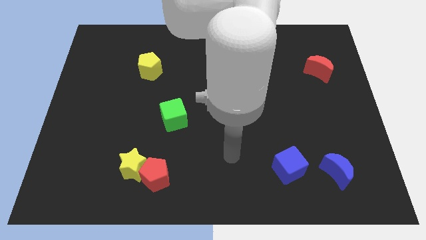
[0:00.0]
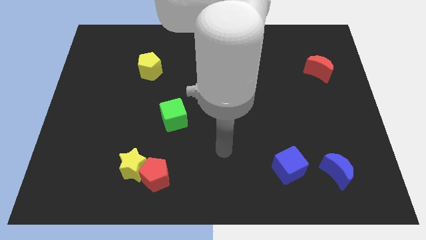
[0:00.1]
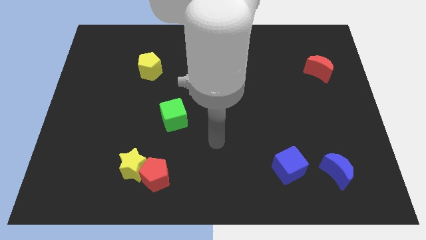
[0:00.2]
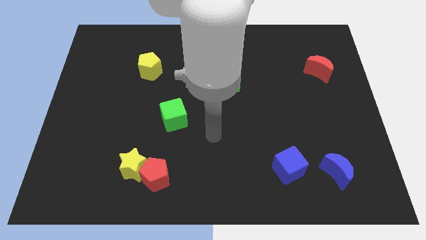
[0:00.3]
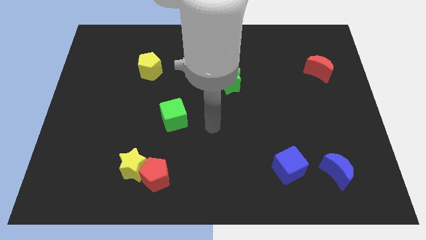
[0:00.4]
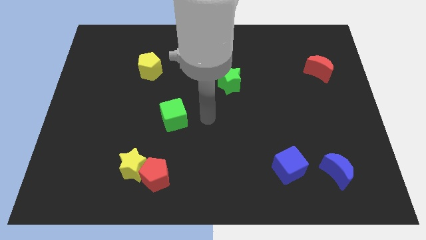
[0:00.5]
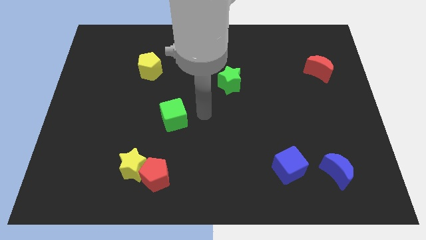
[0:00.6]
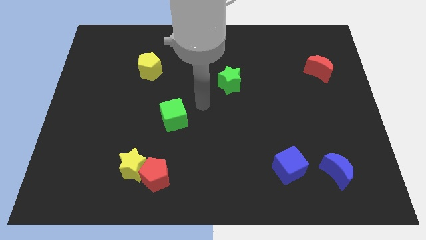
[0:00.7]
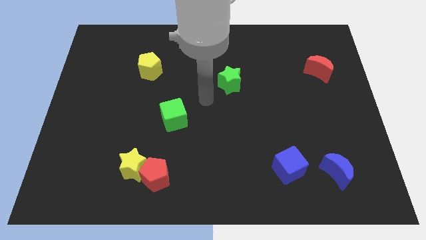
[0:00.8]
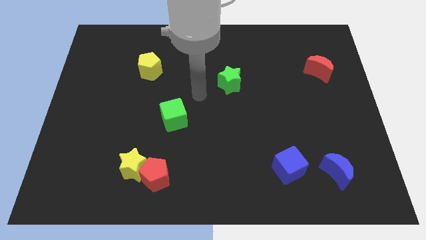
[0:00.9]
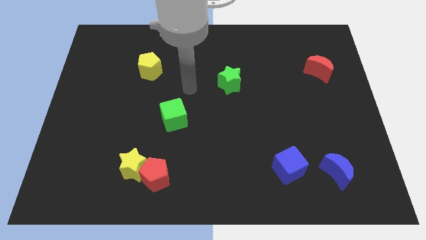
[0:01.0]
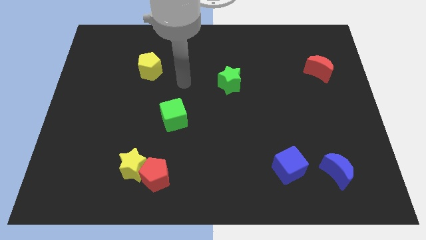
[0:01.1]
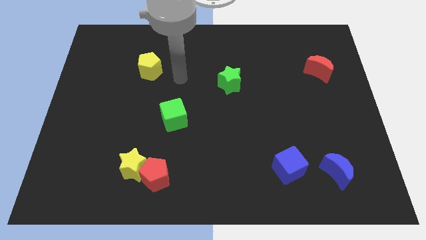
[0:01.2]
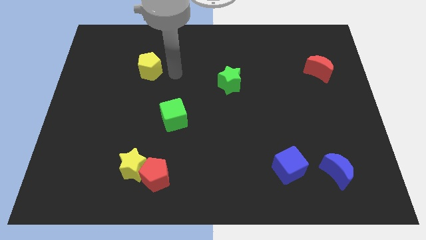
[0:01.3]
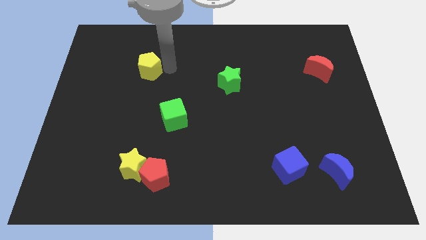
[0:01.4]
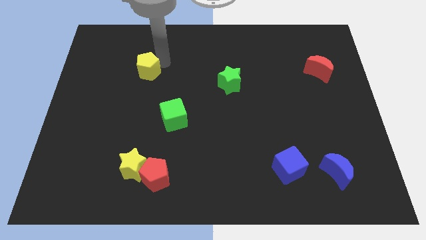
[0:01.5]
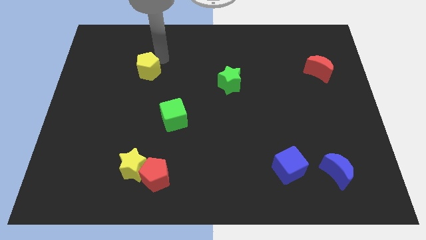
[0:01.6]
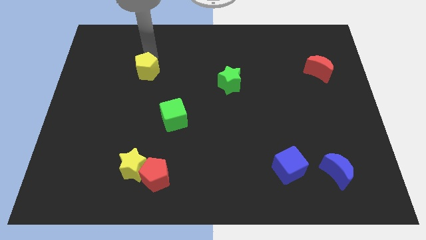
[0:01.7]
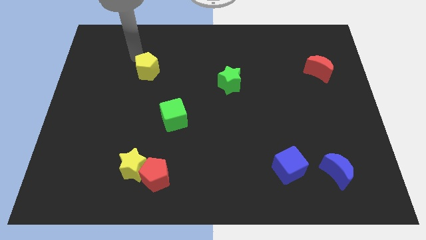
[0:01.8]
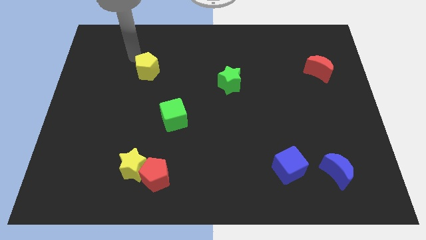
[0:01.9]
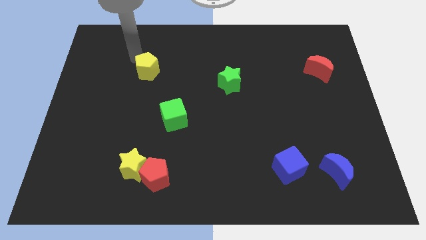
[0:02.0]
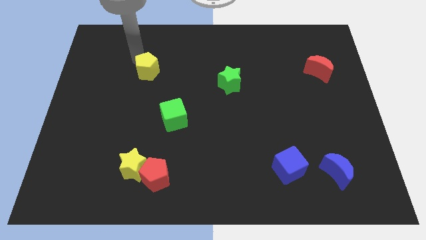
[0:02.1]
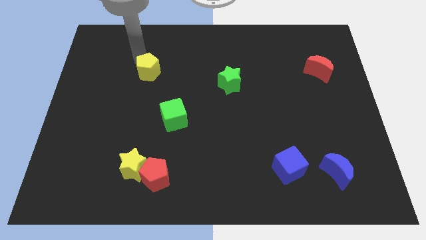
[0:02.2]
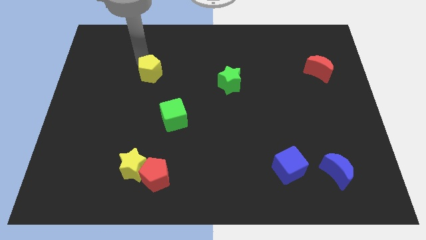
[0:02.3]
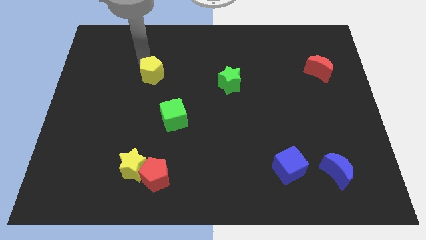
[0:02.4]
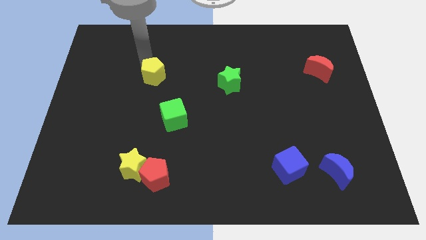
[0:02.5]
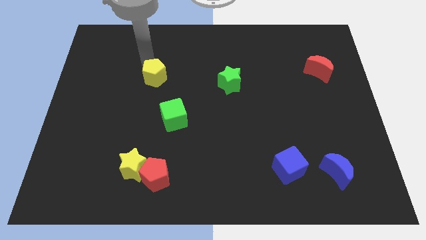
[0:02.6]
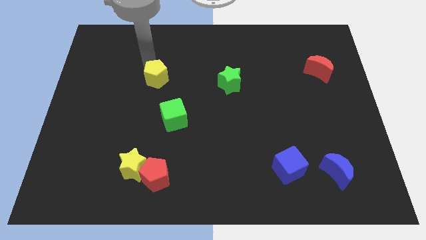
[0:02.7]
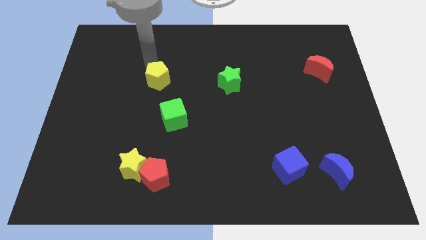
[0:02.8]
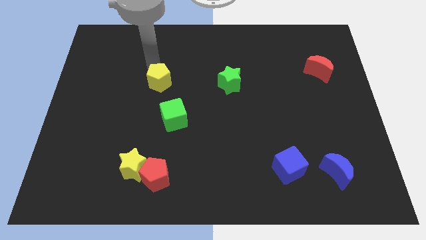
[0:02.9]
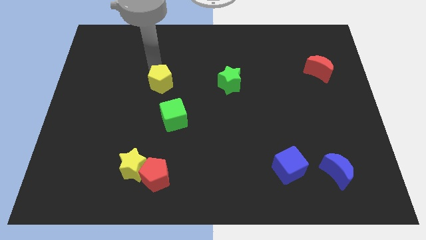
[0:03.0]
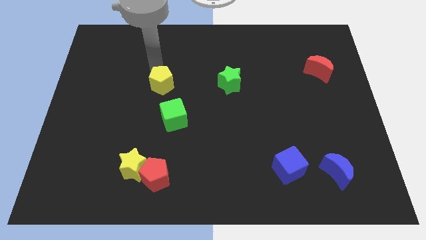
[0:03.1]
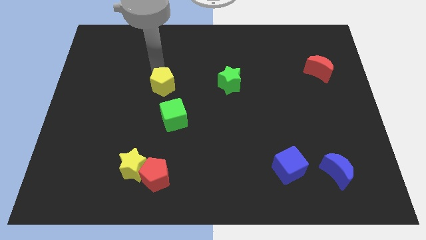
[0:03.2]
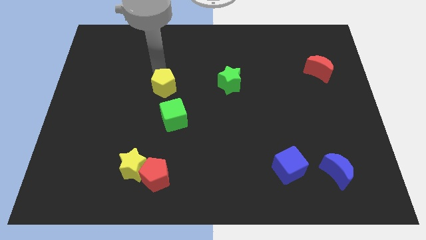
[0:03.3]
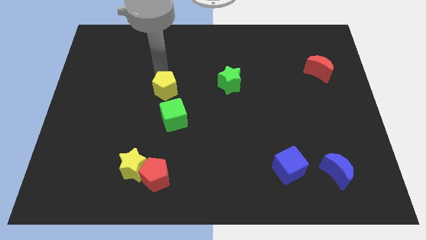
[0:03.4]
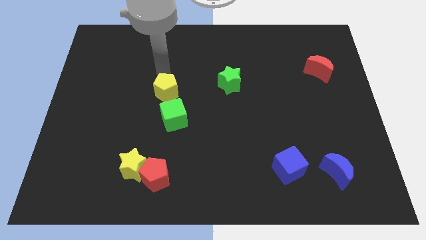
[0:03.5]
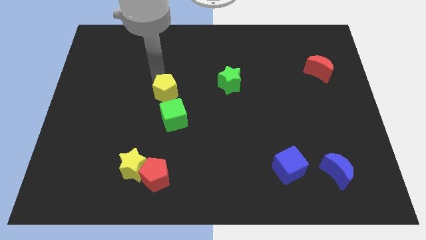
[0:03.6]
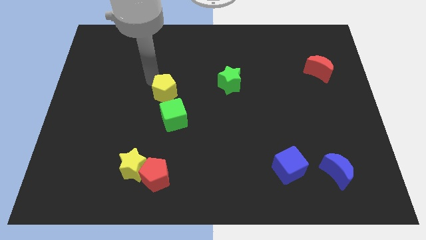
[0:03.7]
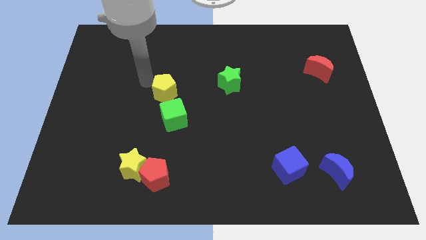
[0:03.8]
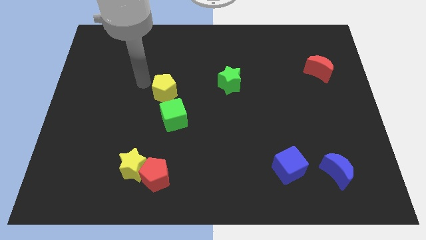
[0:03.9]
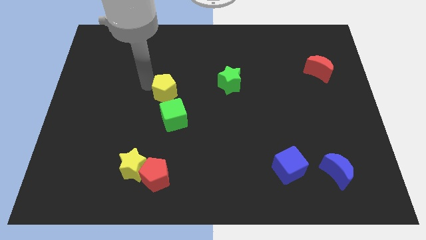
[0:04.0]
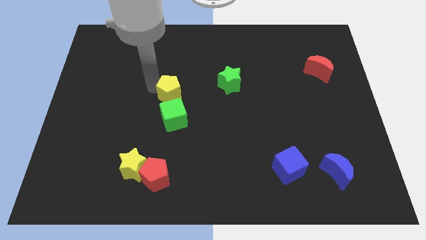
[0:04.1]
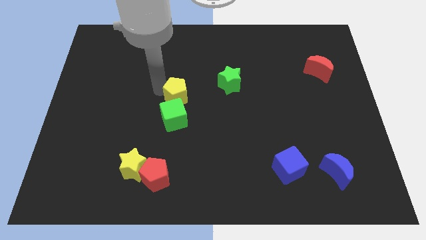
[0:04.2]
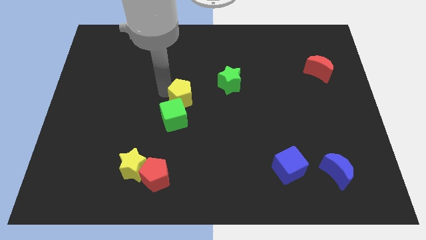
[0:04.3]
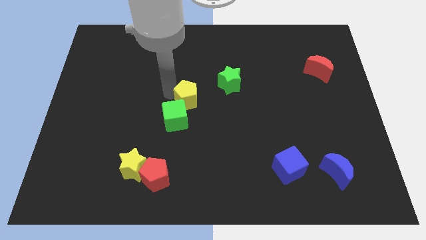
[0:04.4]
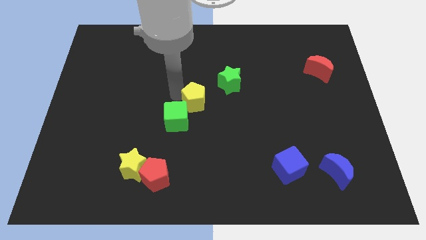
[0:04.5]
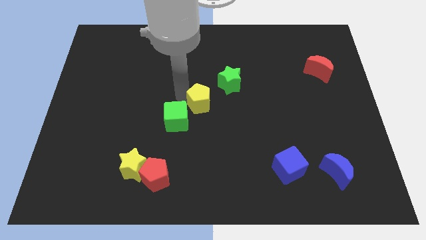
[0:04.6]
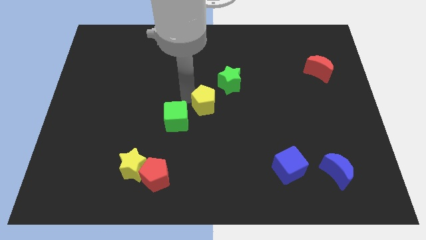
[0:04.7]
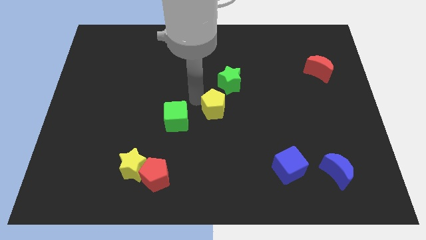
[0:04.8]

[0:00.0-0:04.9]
push the yellow pentagon down and right diagonally

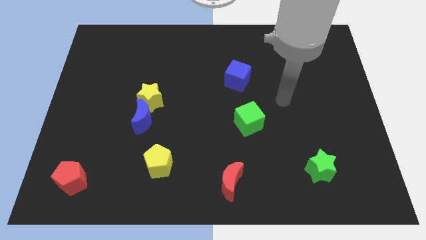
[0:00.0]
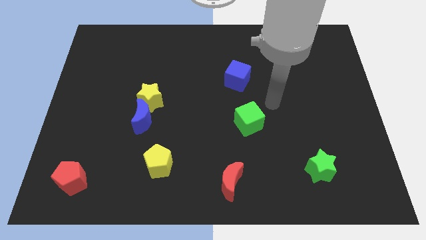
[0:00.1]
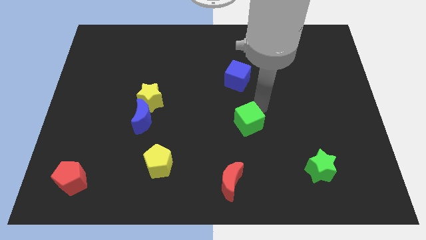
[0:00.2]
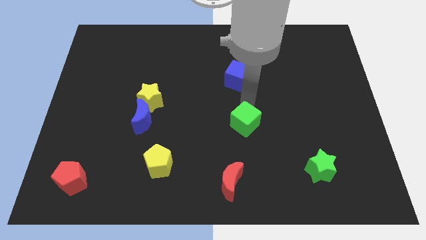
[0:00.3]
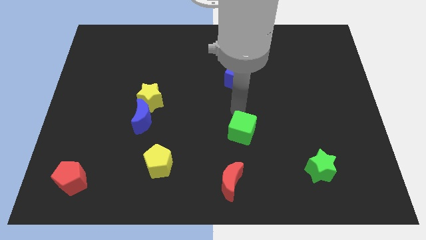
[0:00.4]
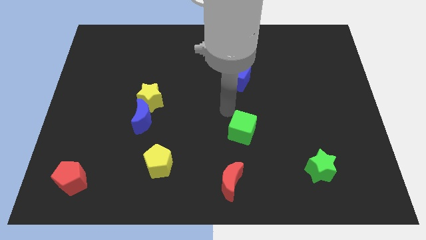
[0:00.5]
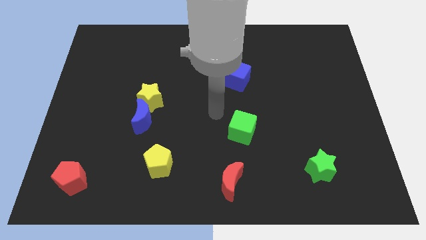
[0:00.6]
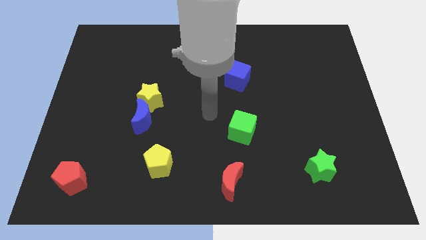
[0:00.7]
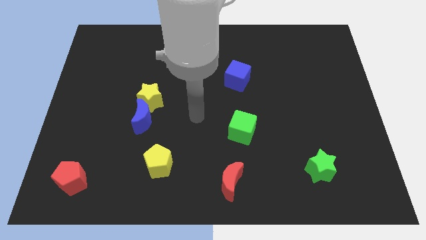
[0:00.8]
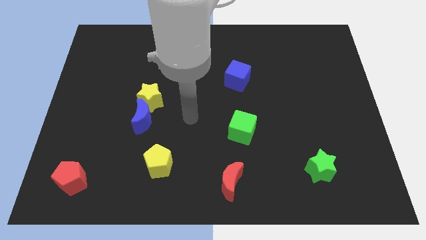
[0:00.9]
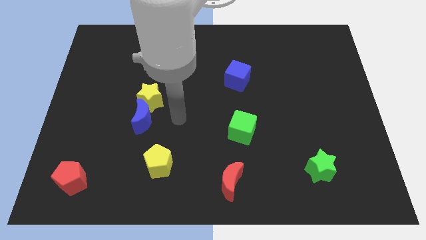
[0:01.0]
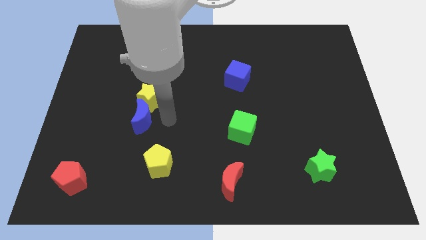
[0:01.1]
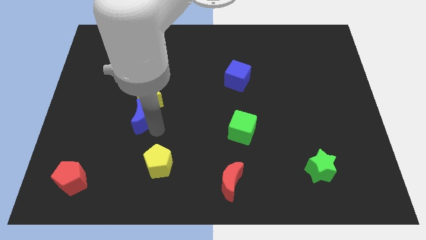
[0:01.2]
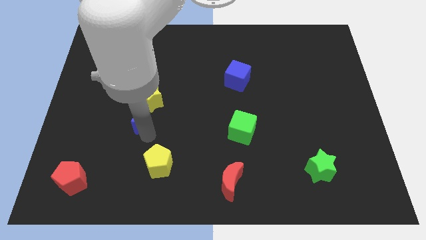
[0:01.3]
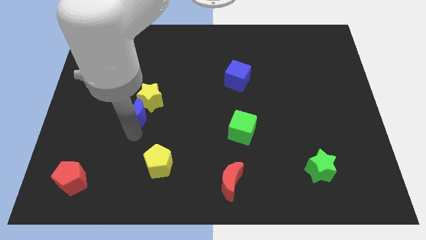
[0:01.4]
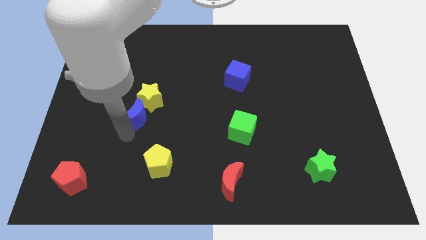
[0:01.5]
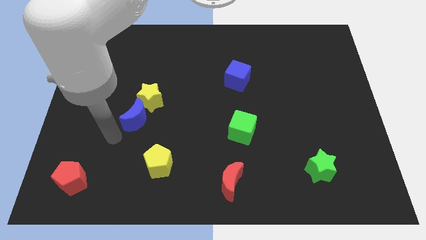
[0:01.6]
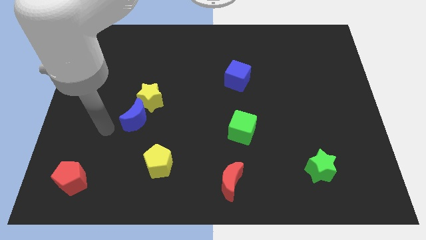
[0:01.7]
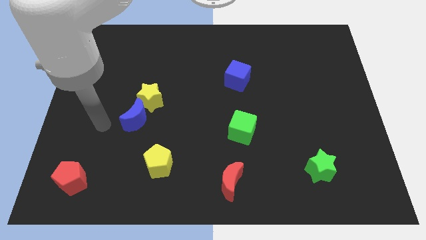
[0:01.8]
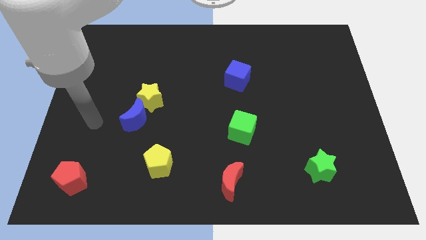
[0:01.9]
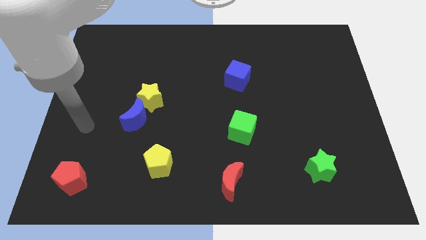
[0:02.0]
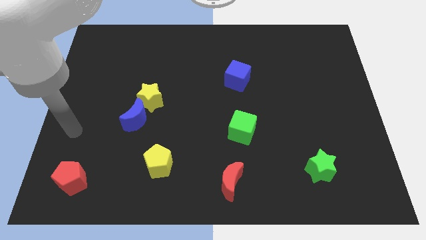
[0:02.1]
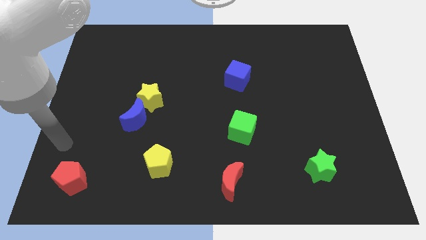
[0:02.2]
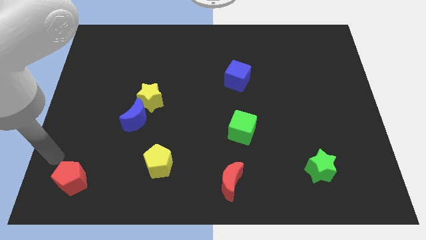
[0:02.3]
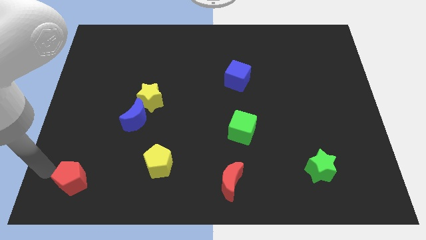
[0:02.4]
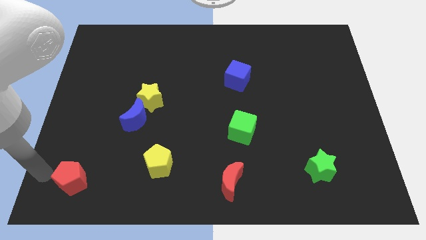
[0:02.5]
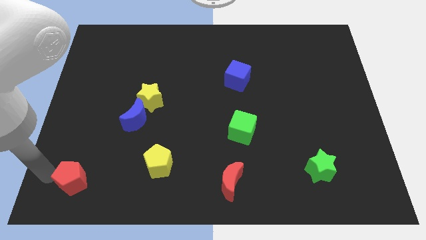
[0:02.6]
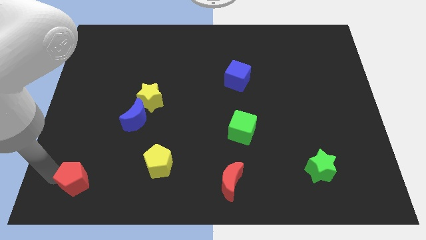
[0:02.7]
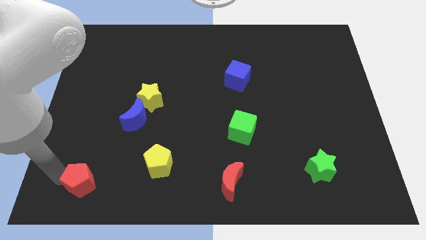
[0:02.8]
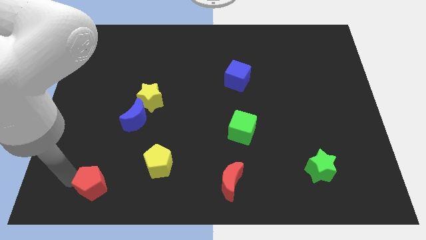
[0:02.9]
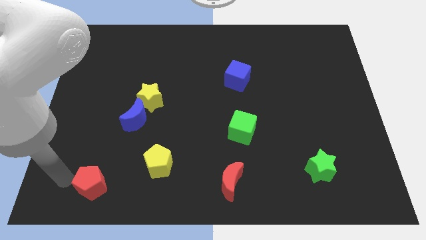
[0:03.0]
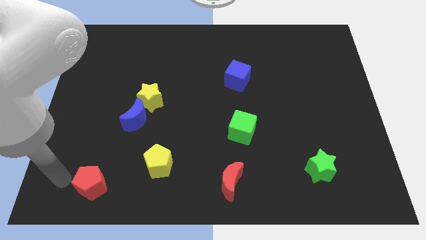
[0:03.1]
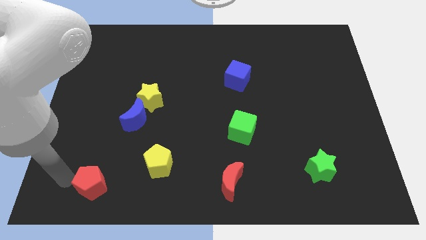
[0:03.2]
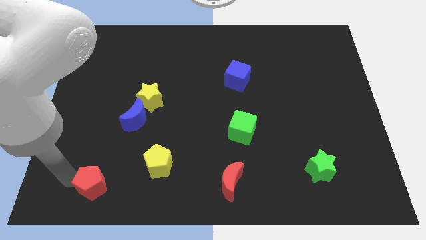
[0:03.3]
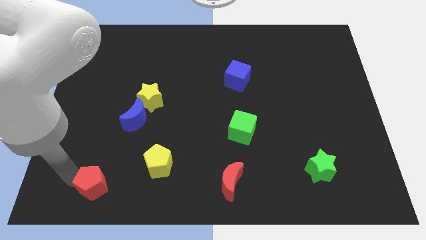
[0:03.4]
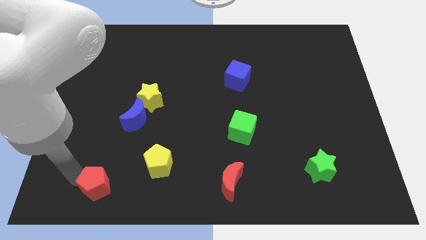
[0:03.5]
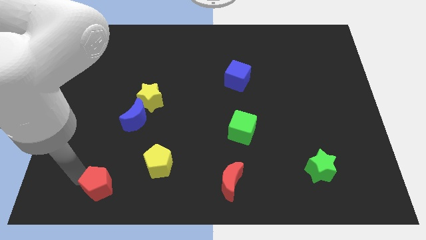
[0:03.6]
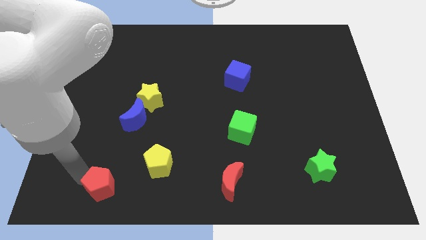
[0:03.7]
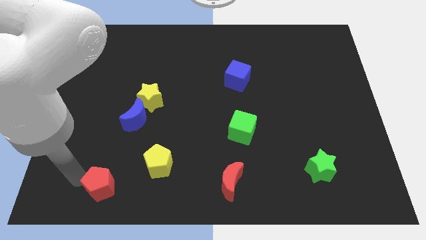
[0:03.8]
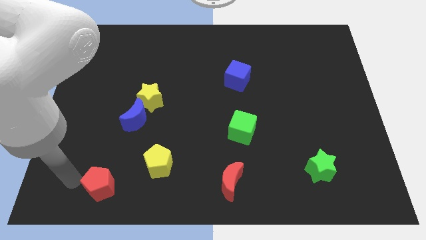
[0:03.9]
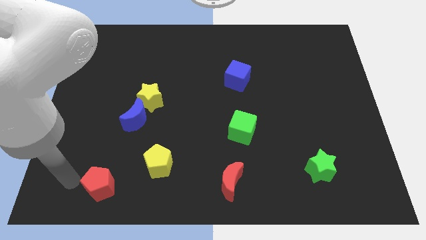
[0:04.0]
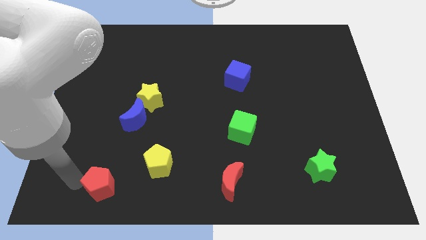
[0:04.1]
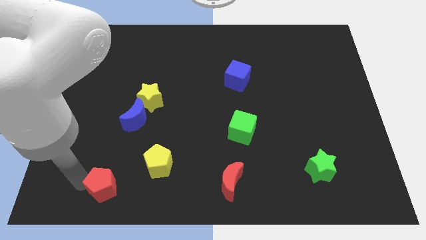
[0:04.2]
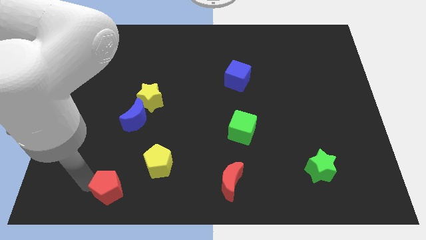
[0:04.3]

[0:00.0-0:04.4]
slightly slide the red pentagon right
